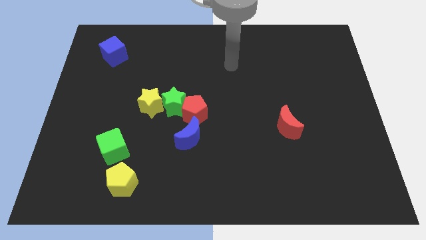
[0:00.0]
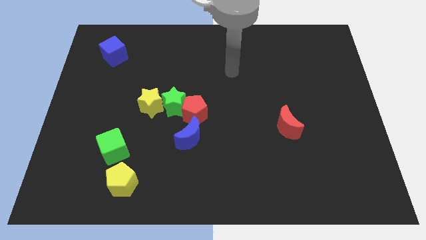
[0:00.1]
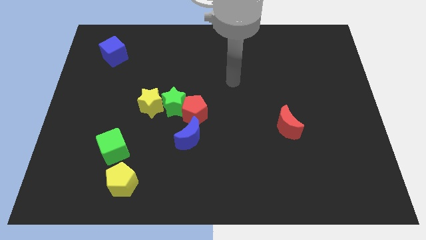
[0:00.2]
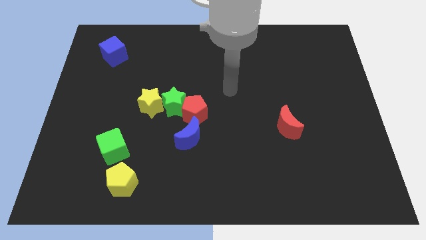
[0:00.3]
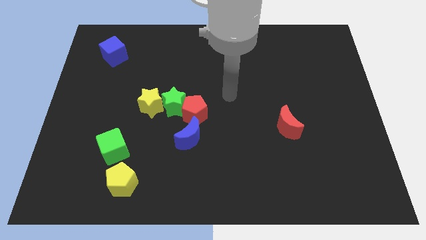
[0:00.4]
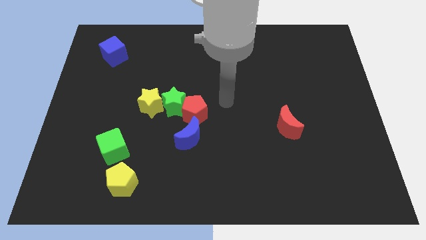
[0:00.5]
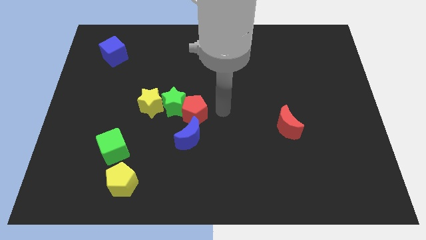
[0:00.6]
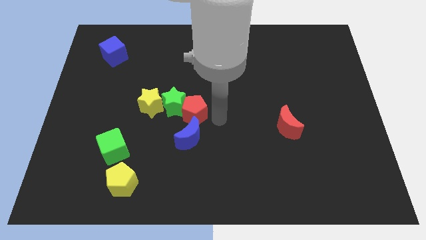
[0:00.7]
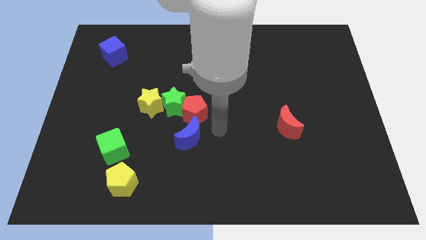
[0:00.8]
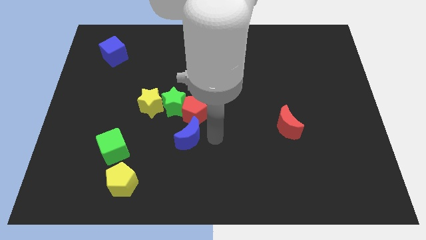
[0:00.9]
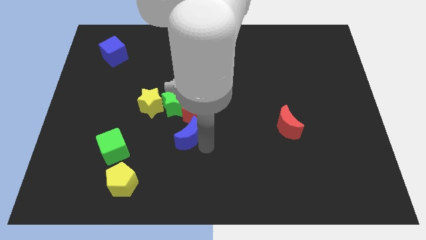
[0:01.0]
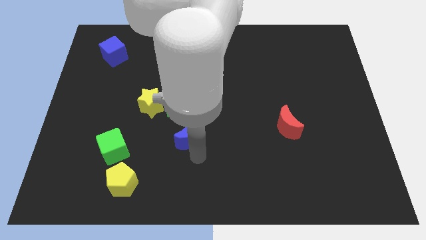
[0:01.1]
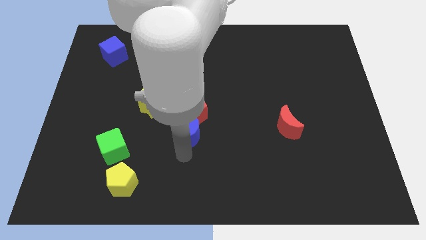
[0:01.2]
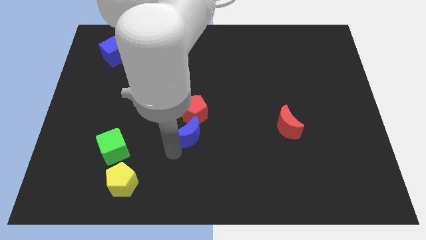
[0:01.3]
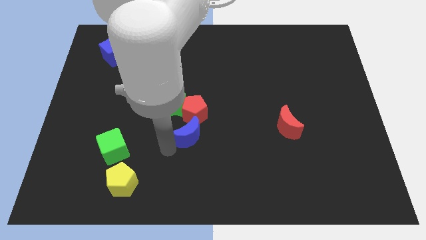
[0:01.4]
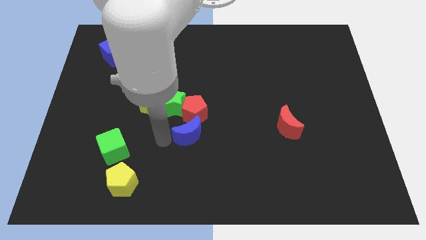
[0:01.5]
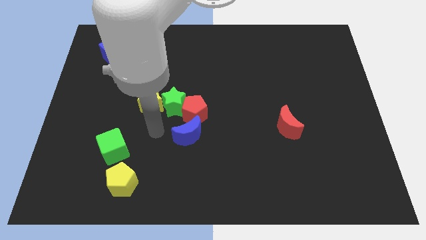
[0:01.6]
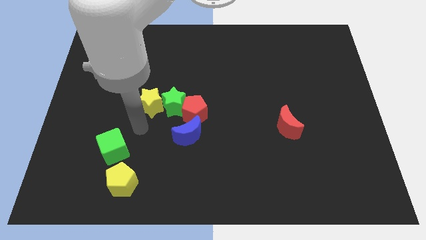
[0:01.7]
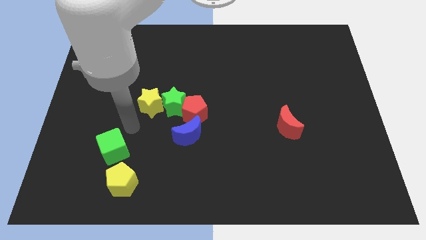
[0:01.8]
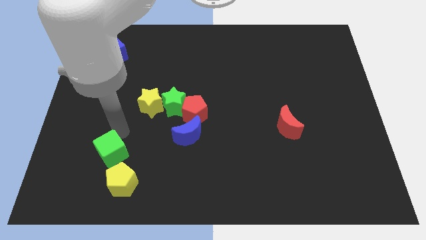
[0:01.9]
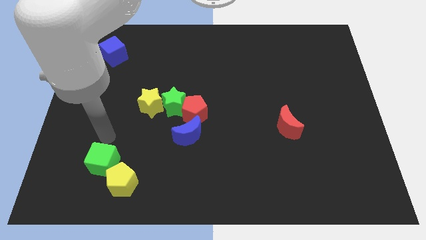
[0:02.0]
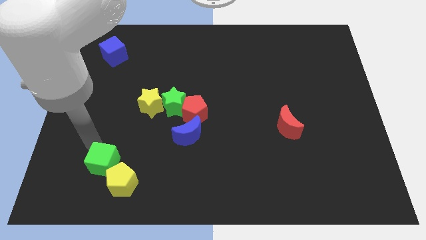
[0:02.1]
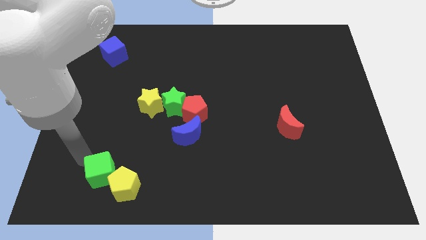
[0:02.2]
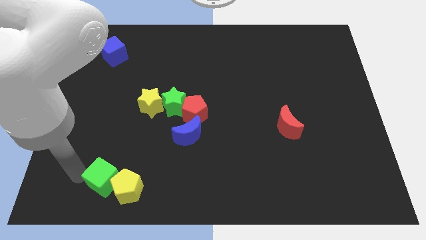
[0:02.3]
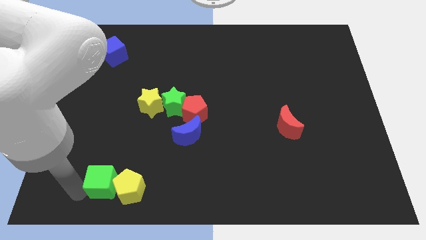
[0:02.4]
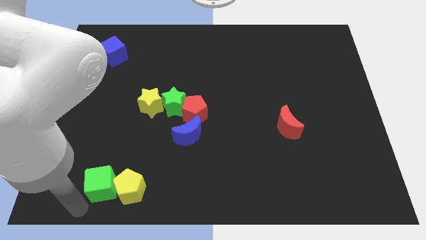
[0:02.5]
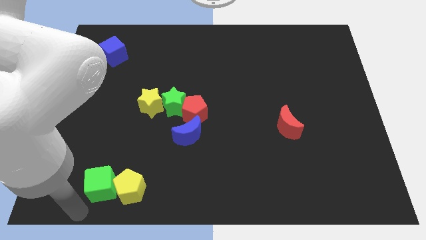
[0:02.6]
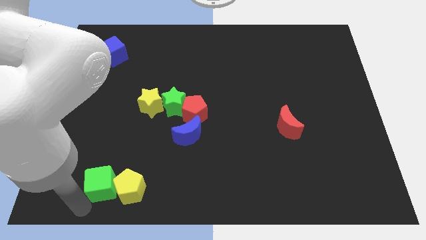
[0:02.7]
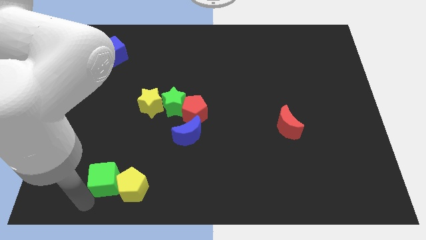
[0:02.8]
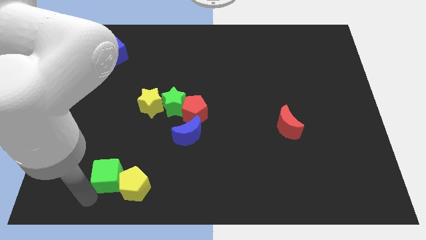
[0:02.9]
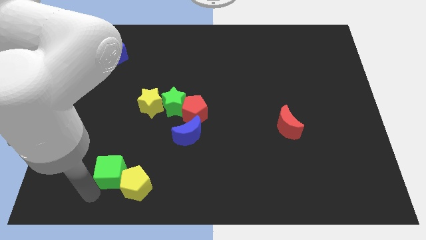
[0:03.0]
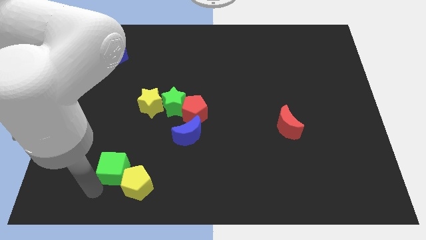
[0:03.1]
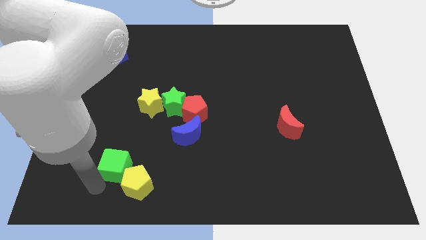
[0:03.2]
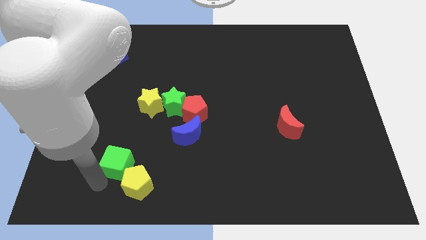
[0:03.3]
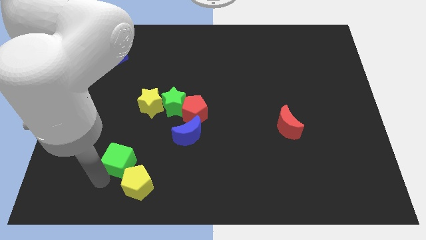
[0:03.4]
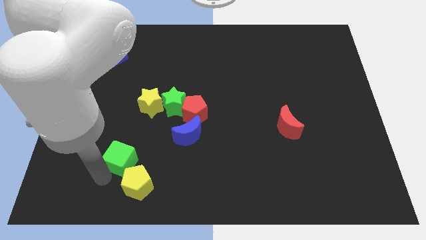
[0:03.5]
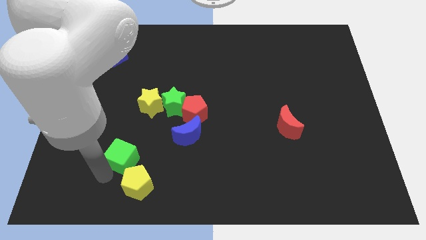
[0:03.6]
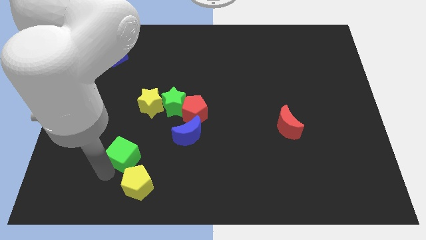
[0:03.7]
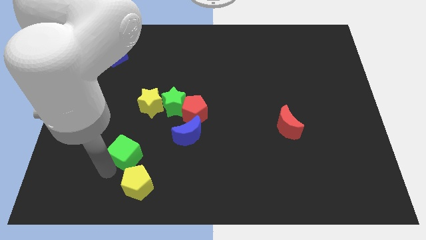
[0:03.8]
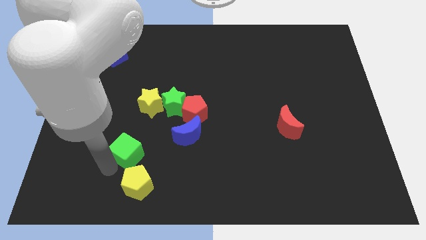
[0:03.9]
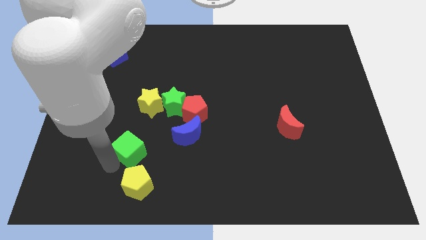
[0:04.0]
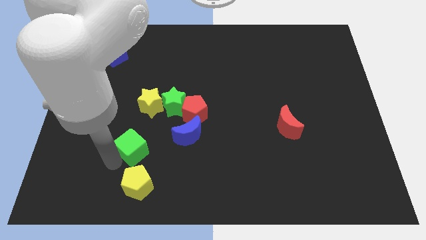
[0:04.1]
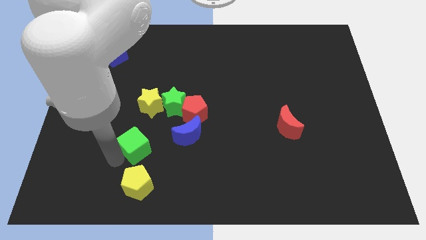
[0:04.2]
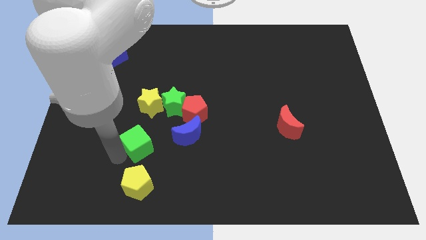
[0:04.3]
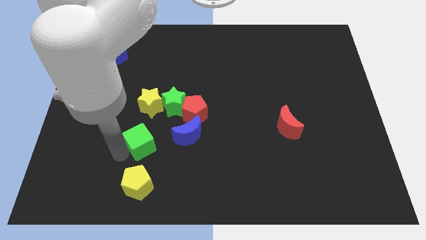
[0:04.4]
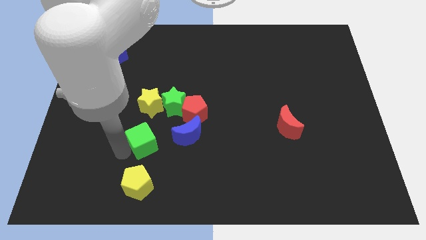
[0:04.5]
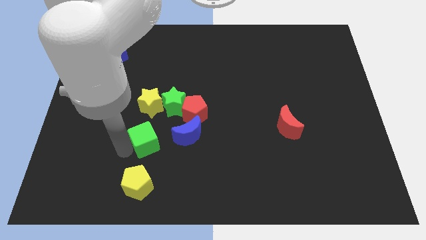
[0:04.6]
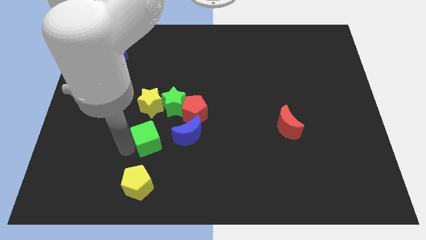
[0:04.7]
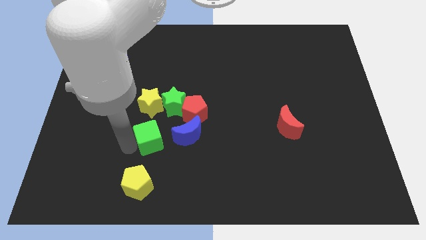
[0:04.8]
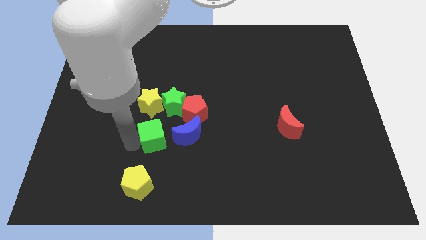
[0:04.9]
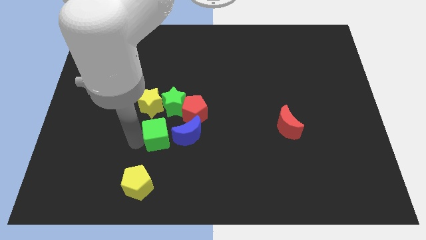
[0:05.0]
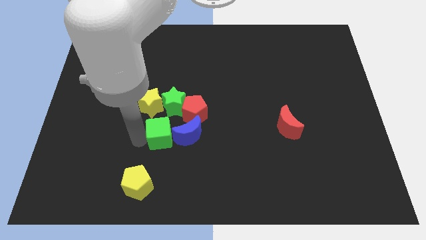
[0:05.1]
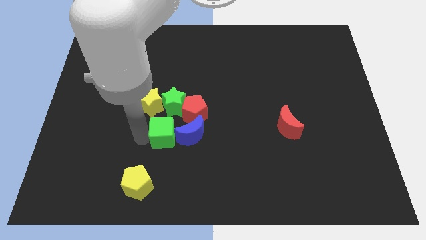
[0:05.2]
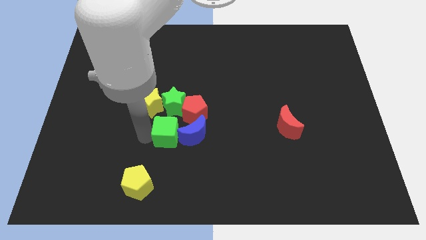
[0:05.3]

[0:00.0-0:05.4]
put the green cube next to the blue moon

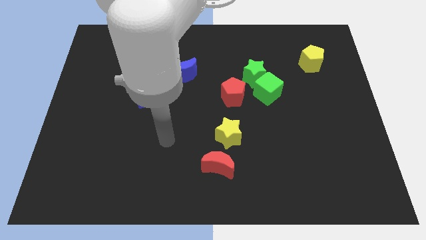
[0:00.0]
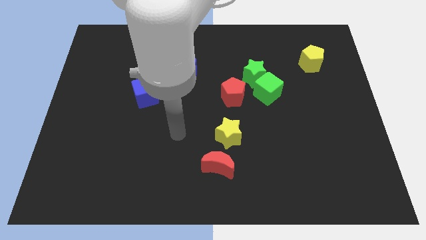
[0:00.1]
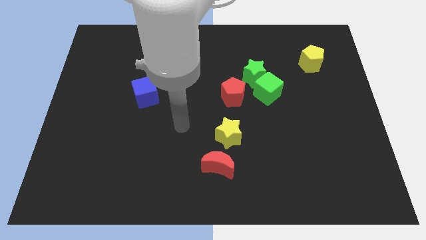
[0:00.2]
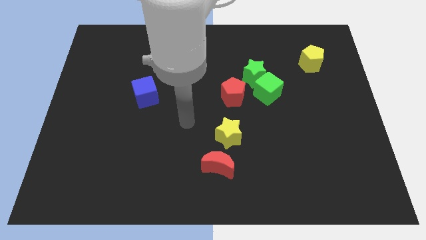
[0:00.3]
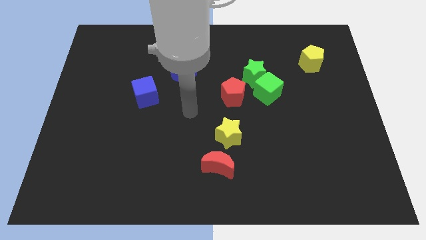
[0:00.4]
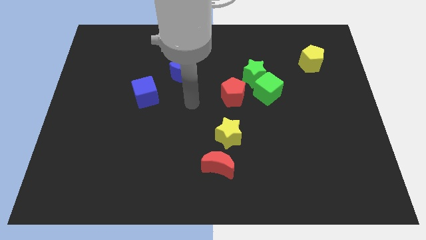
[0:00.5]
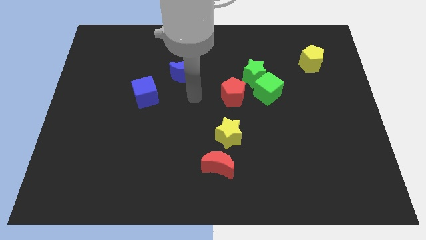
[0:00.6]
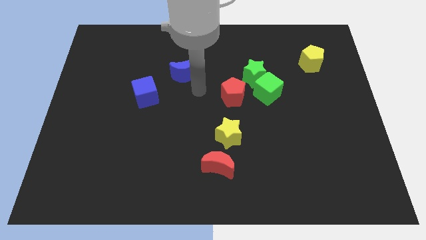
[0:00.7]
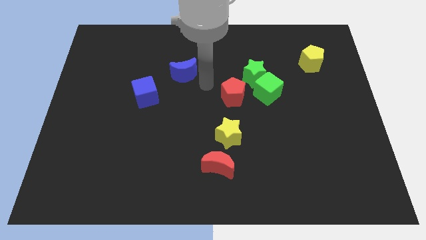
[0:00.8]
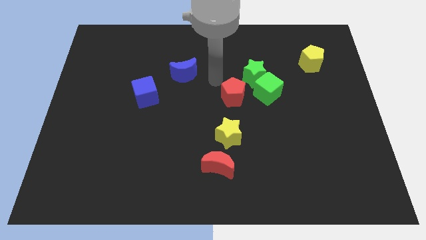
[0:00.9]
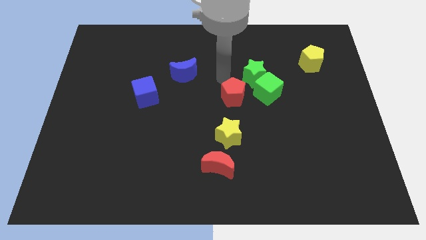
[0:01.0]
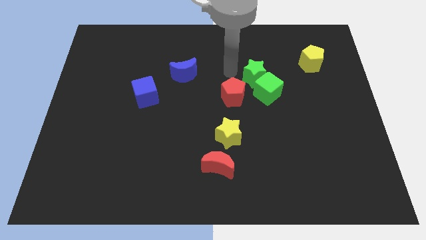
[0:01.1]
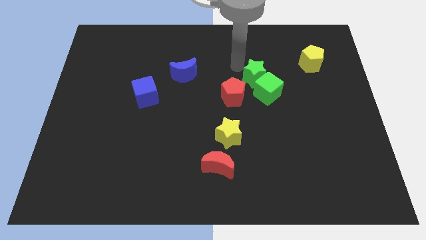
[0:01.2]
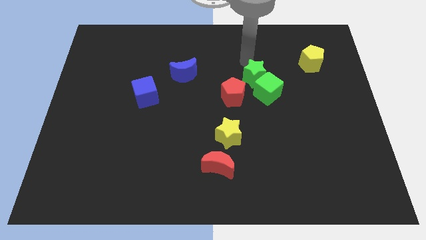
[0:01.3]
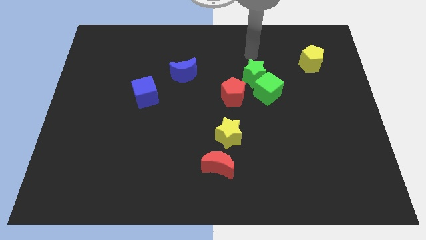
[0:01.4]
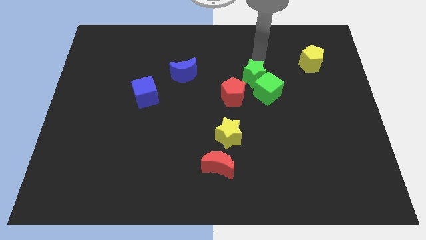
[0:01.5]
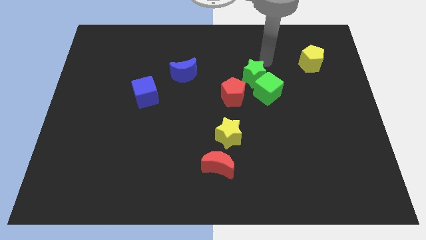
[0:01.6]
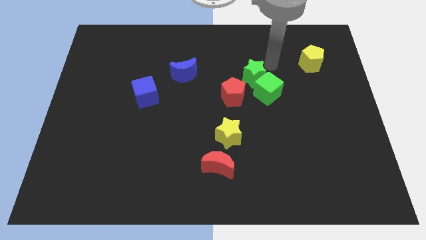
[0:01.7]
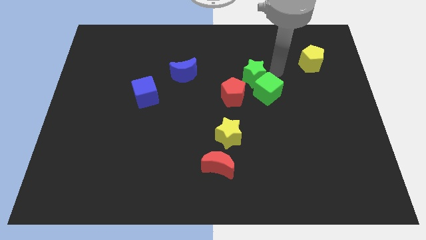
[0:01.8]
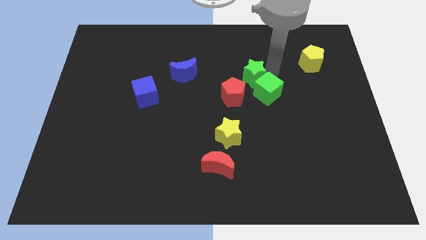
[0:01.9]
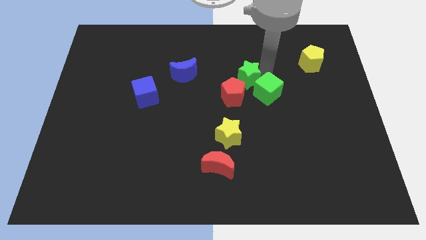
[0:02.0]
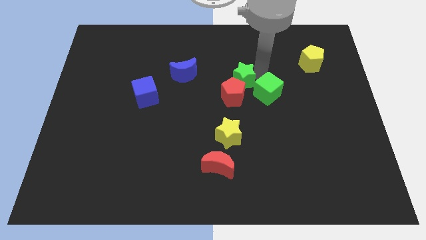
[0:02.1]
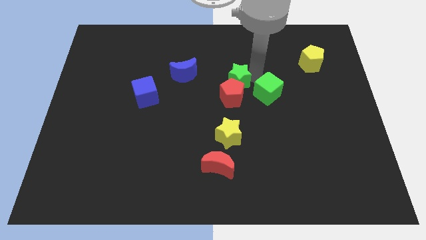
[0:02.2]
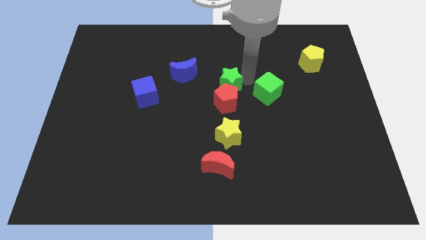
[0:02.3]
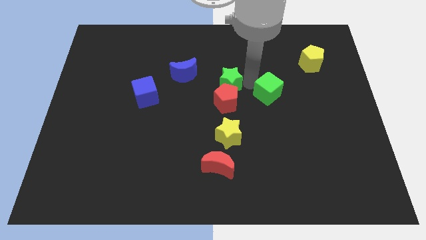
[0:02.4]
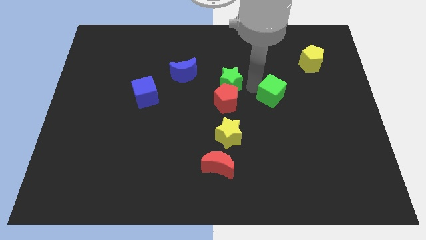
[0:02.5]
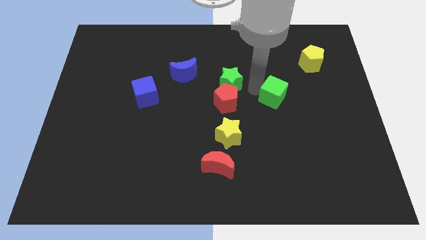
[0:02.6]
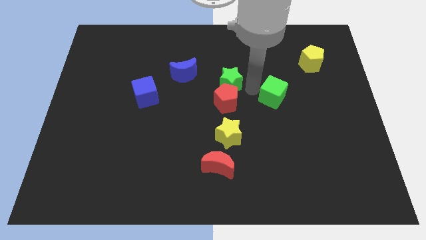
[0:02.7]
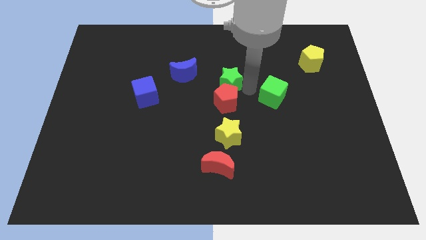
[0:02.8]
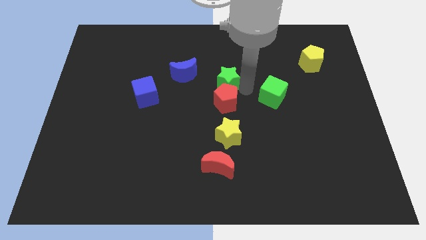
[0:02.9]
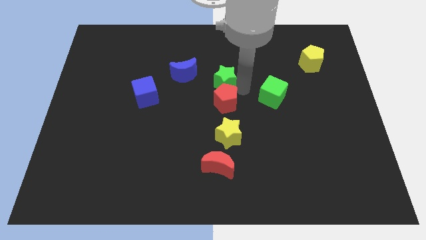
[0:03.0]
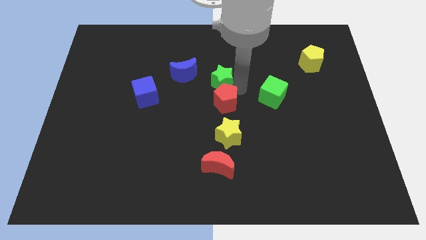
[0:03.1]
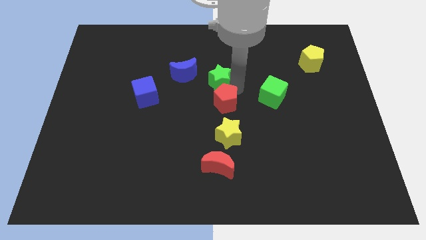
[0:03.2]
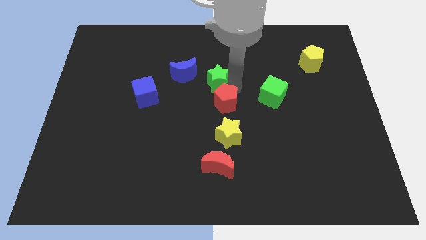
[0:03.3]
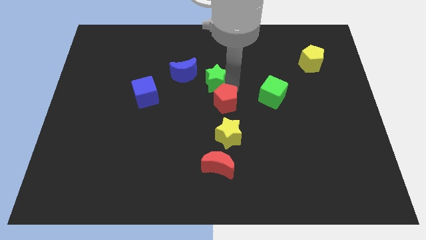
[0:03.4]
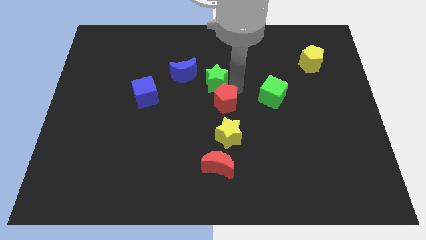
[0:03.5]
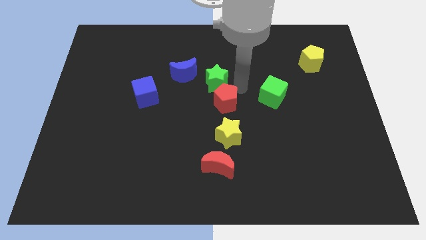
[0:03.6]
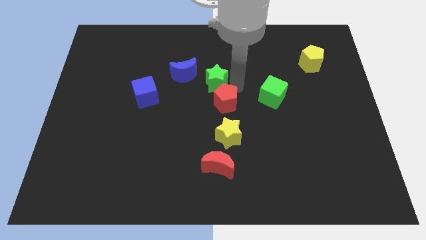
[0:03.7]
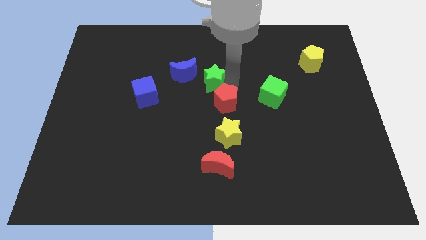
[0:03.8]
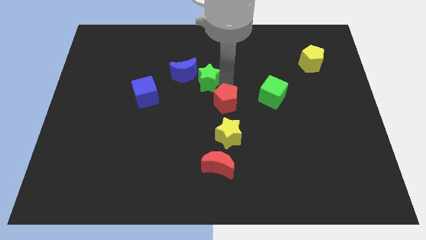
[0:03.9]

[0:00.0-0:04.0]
slide the green star close to the blue moon
